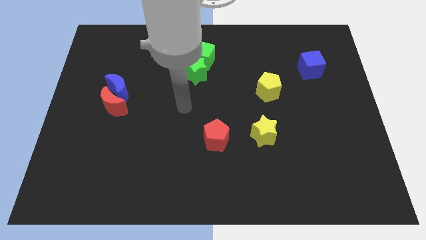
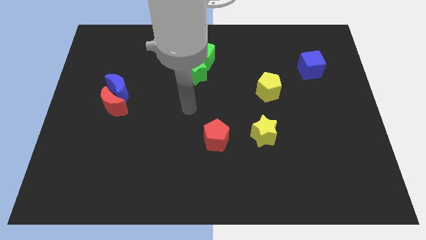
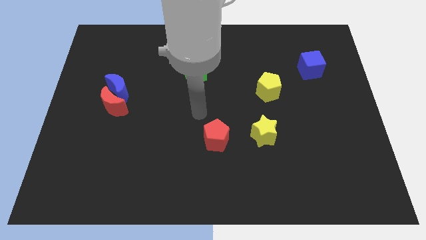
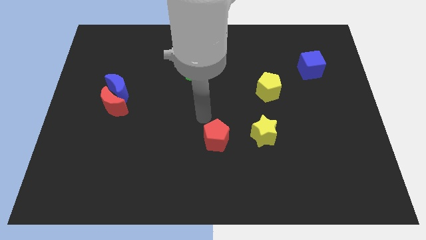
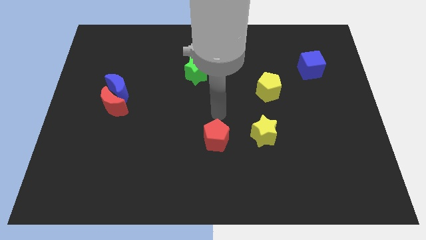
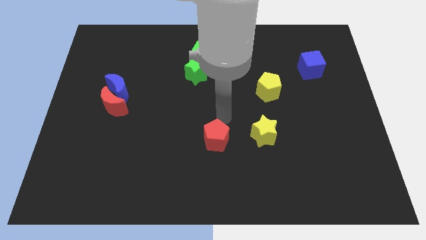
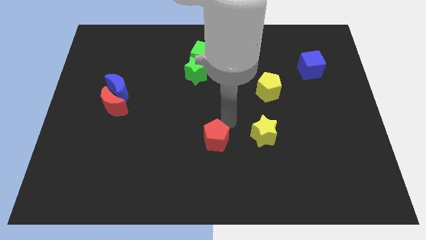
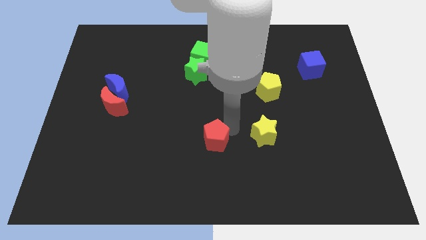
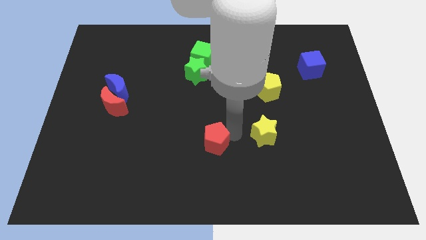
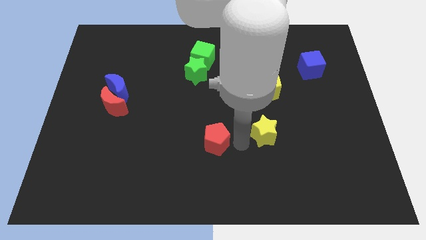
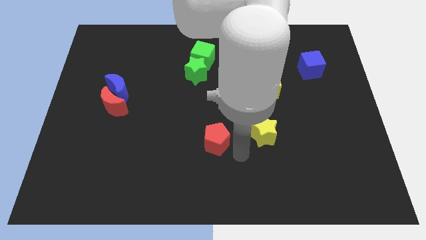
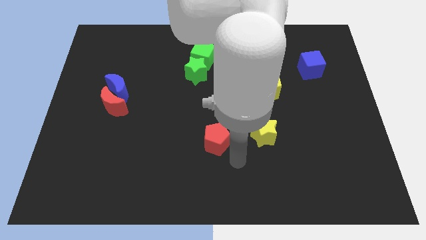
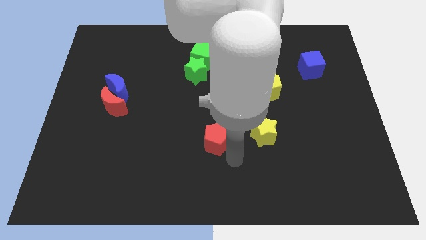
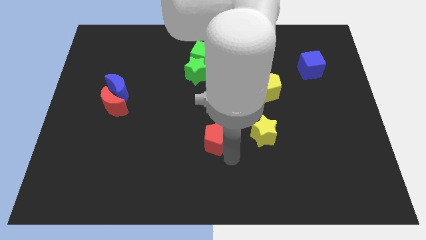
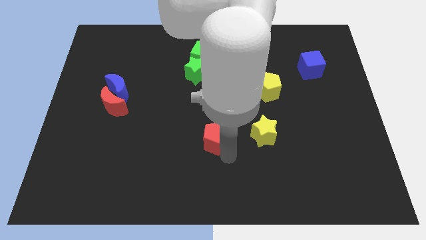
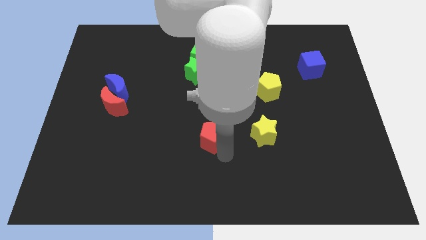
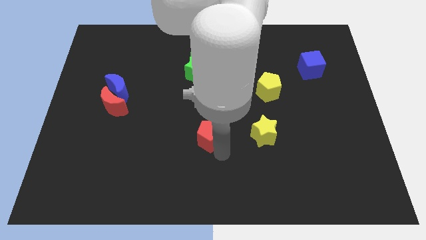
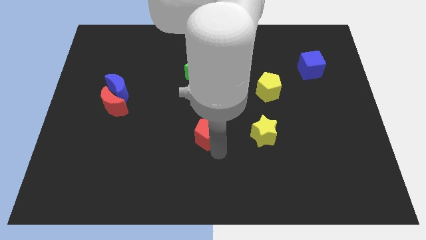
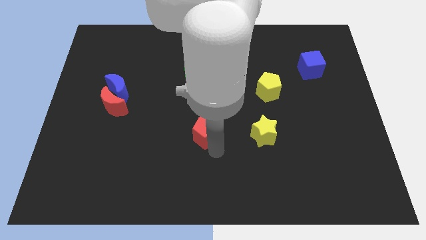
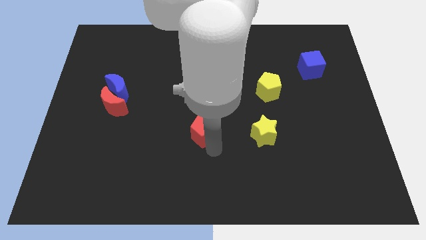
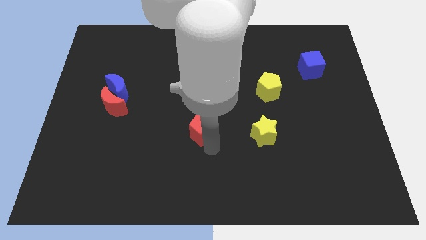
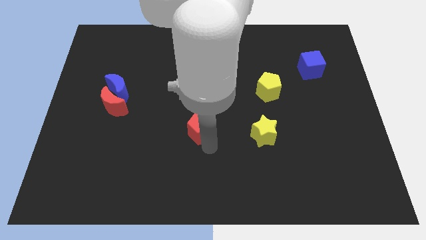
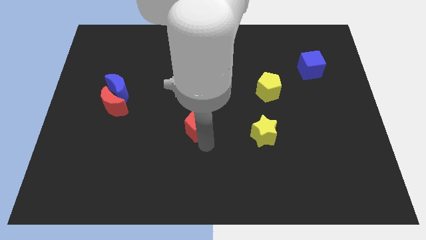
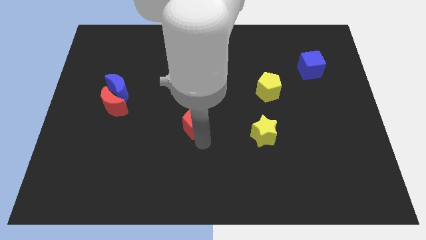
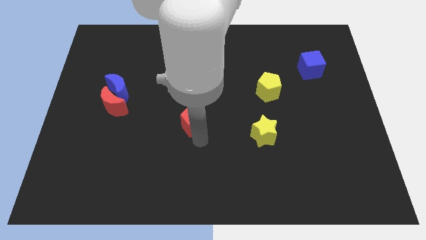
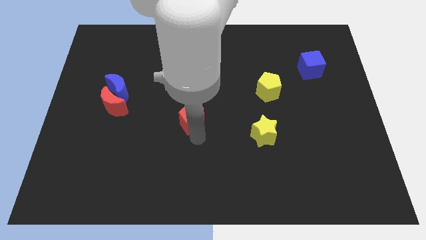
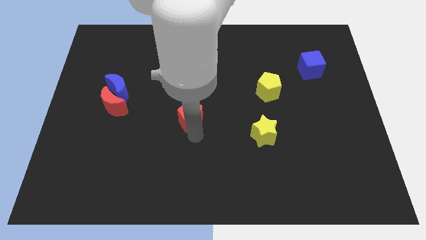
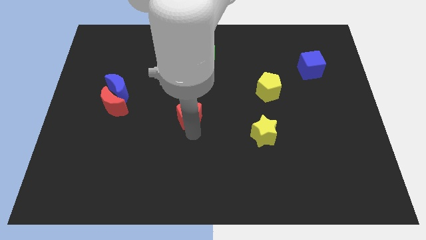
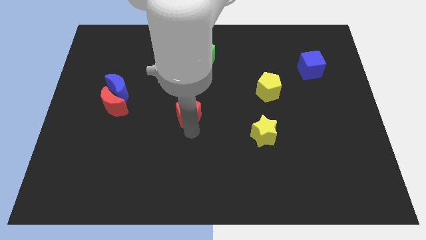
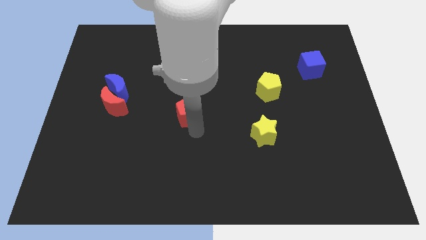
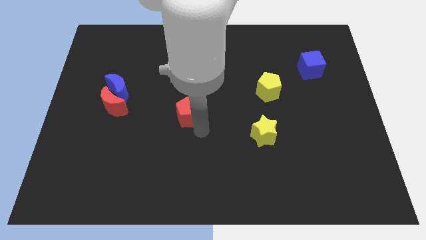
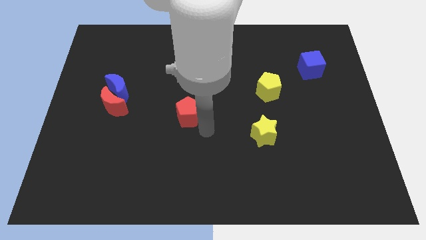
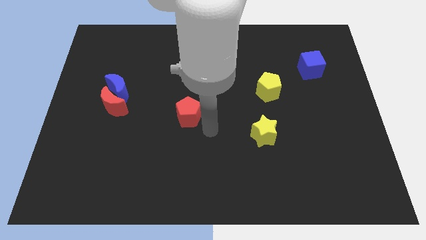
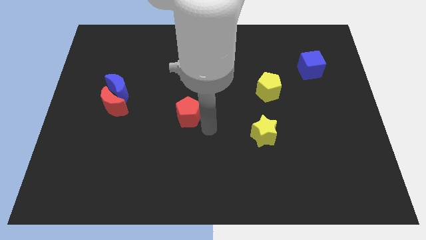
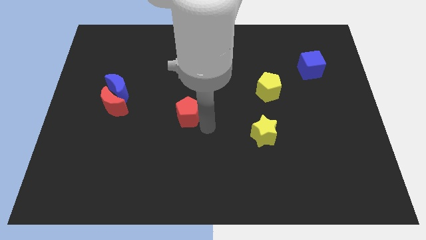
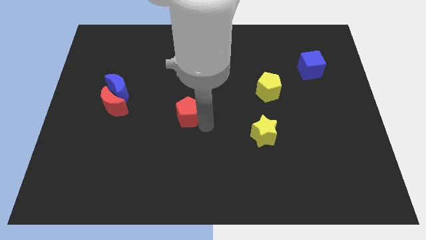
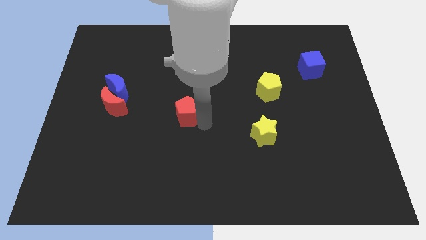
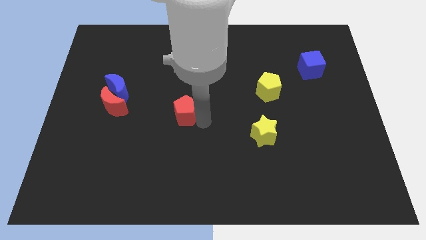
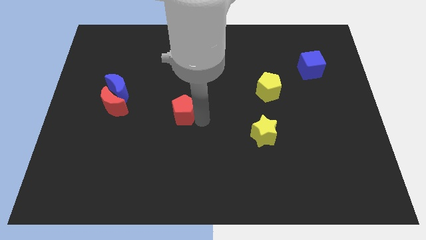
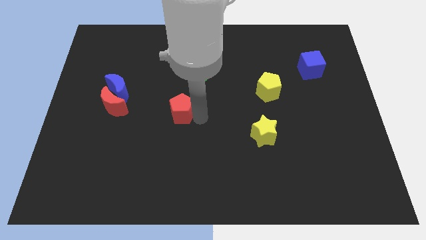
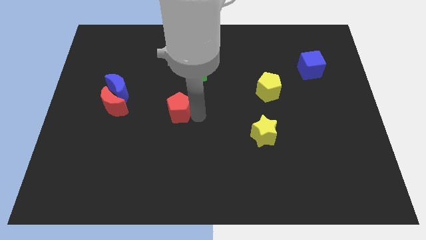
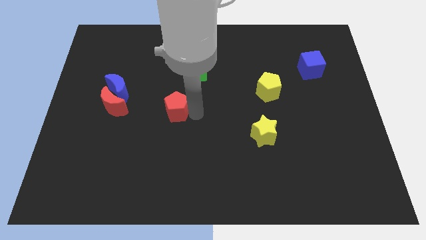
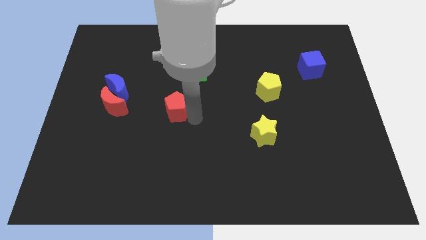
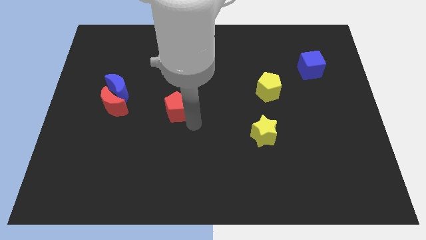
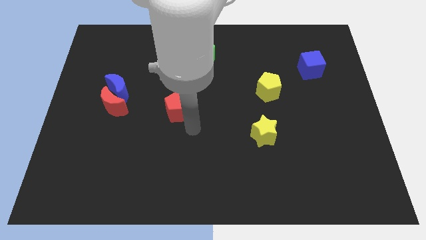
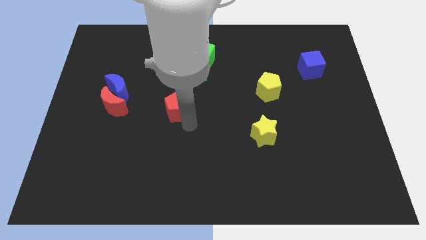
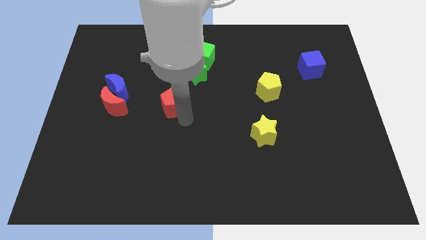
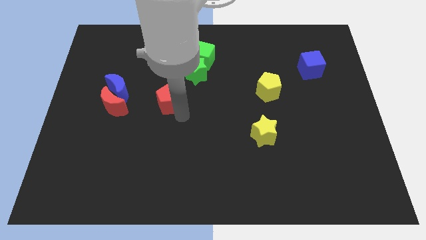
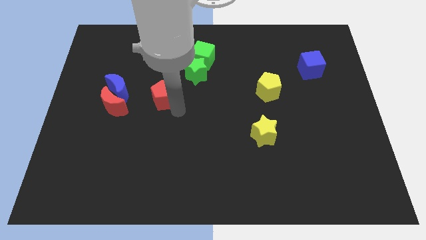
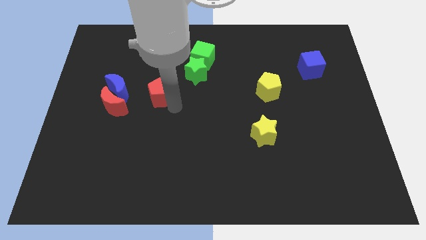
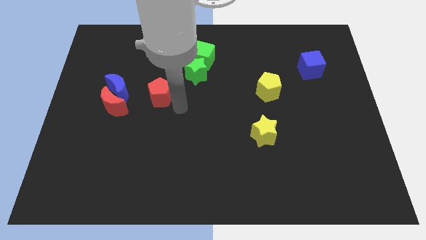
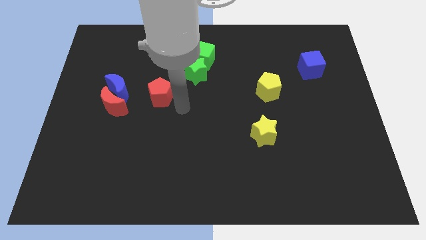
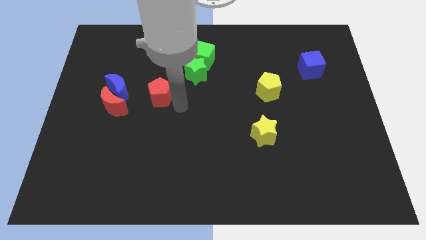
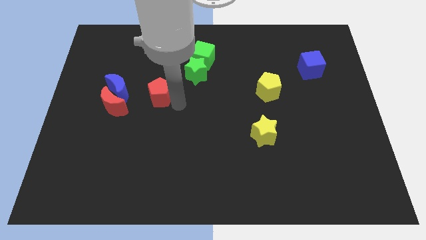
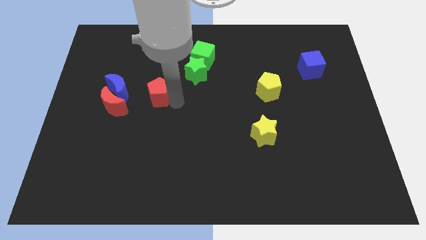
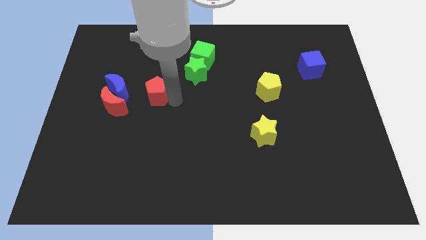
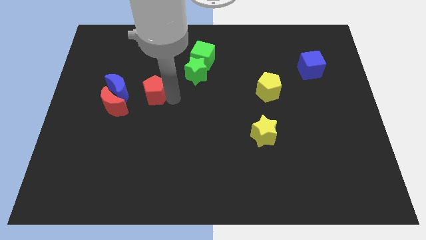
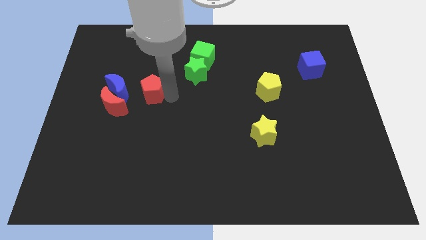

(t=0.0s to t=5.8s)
slide the red pentagon upwards and left

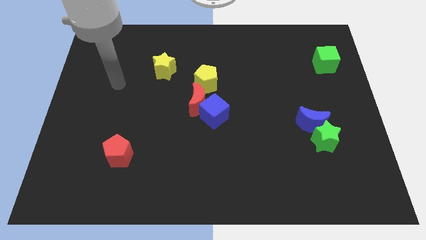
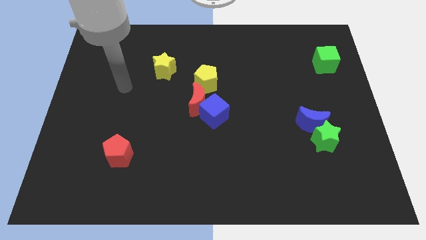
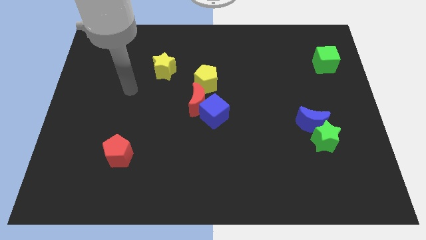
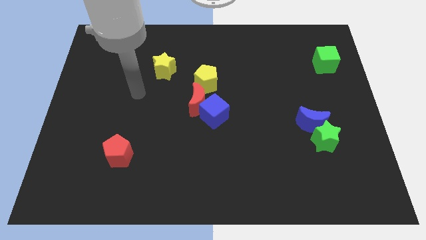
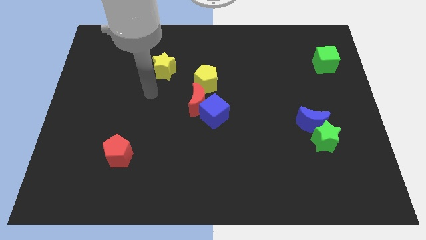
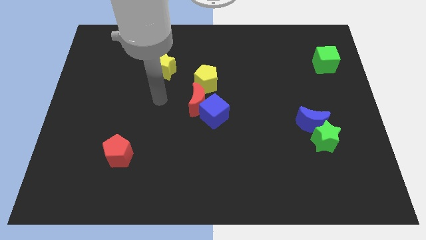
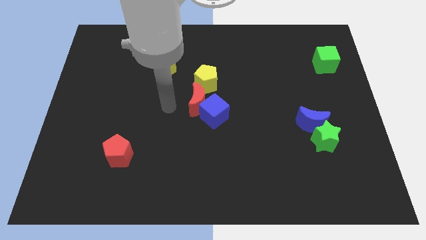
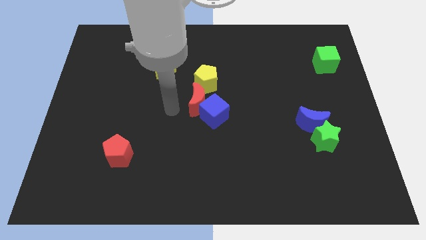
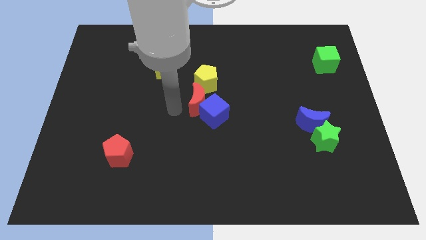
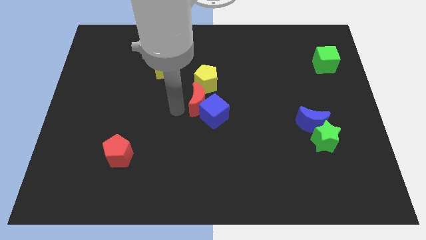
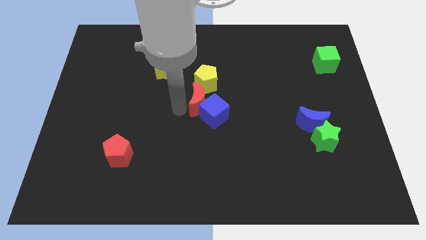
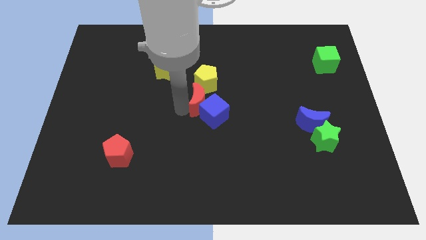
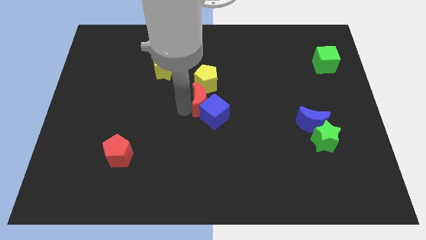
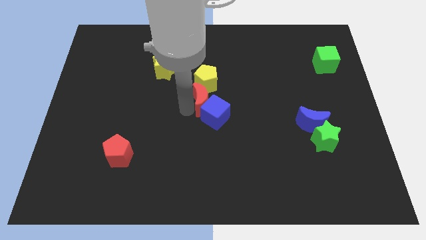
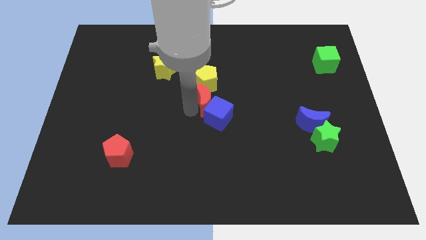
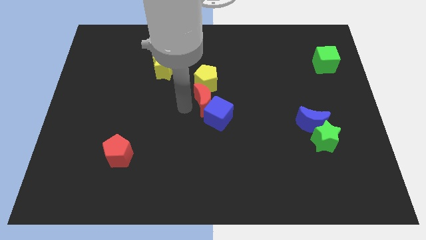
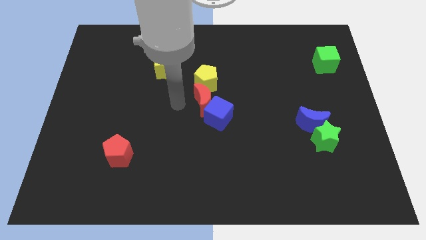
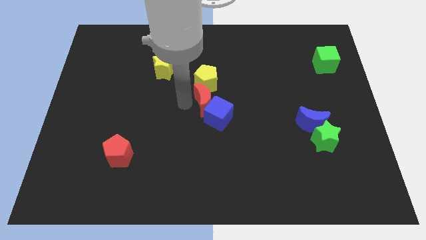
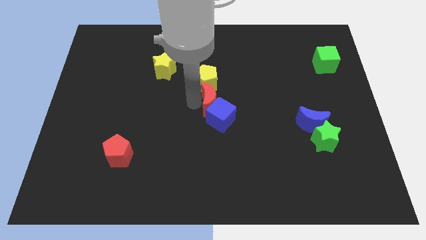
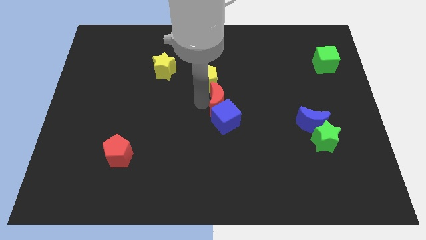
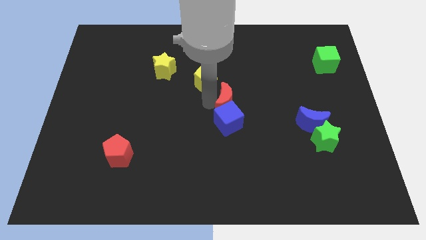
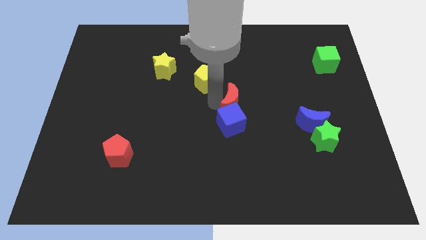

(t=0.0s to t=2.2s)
push the red moon slightly to the right

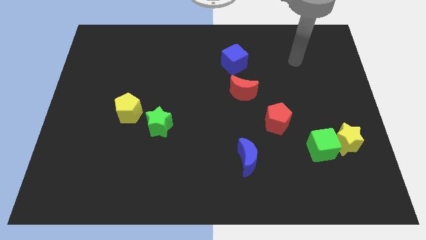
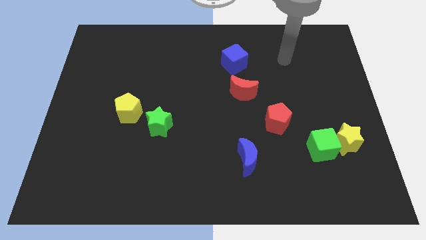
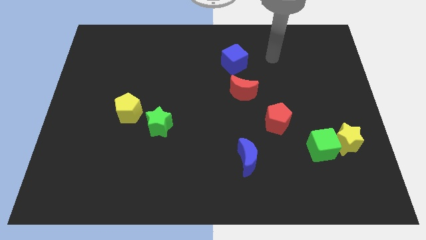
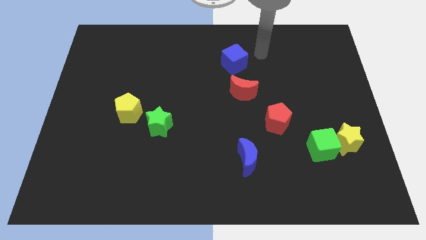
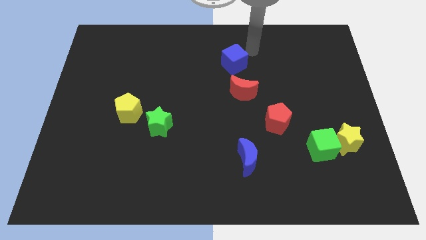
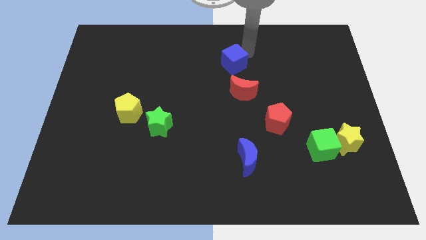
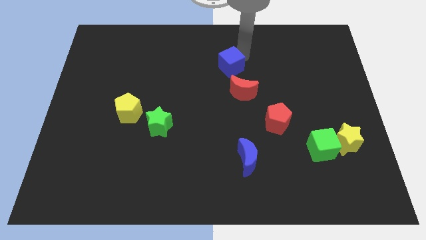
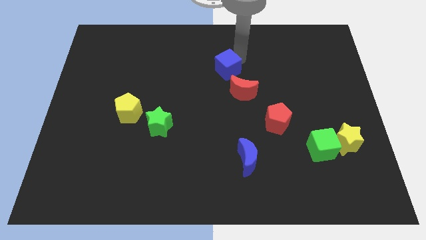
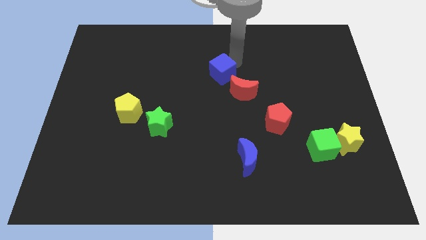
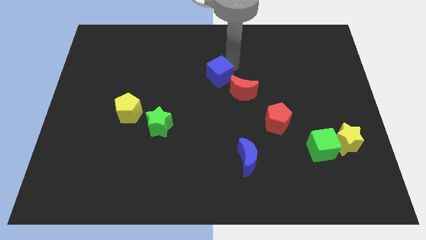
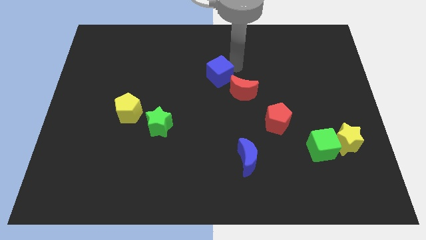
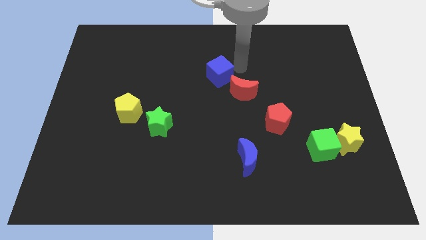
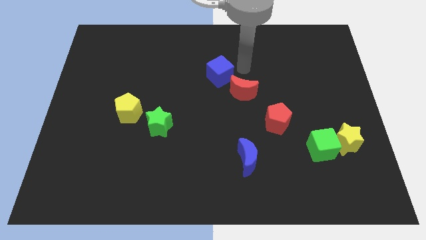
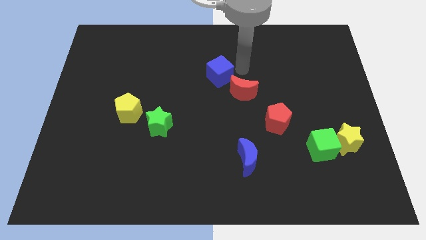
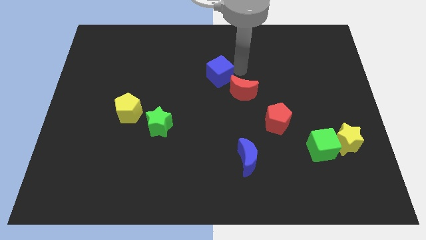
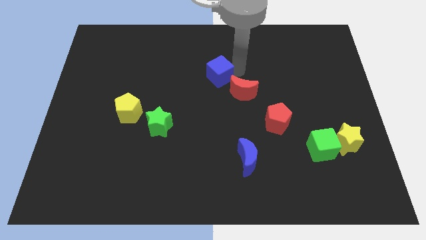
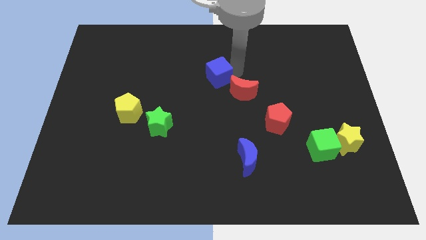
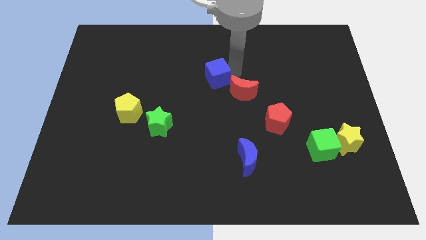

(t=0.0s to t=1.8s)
move the blue cube downwards and to the left somewhat
